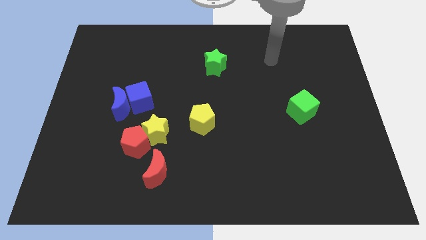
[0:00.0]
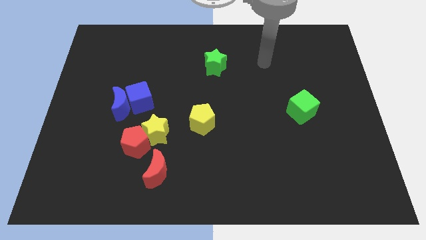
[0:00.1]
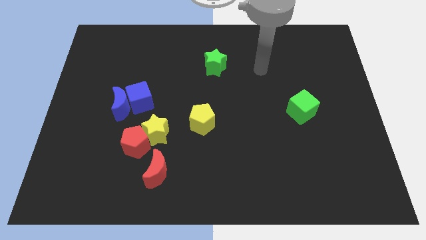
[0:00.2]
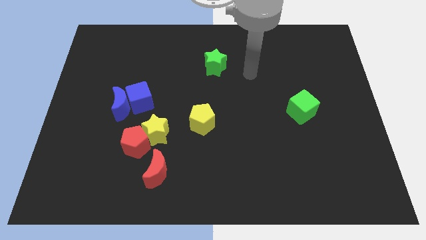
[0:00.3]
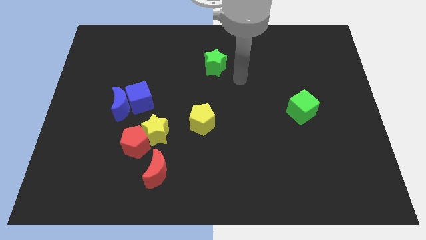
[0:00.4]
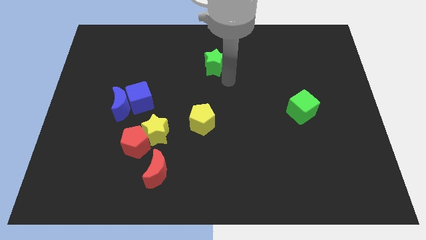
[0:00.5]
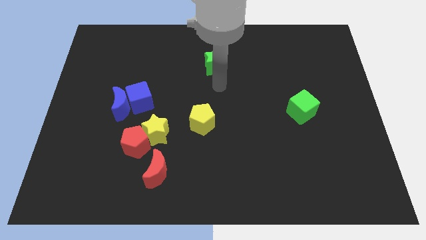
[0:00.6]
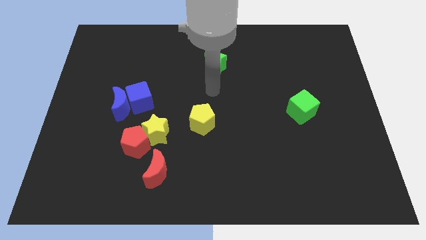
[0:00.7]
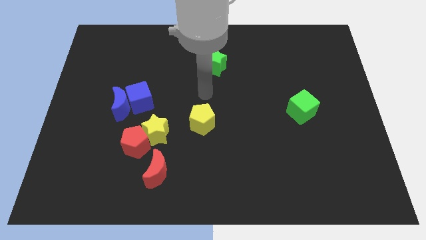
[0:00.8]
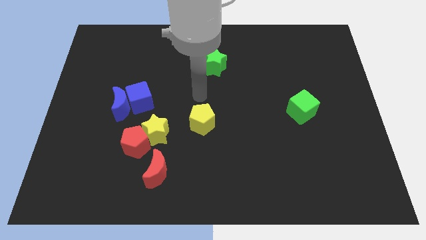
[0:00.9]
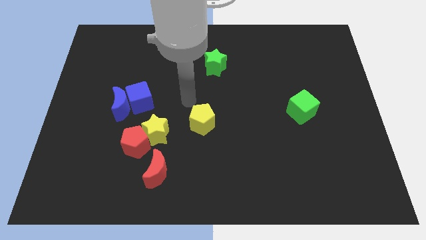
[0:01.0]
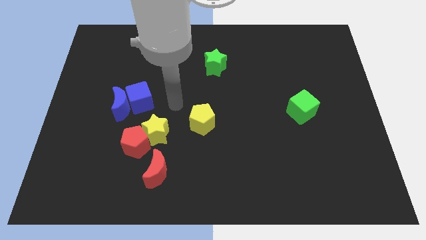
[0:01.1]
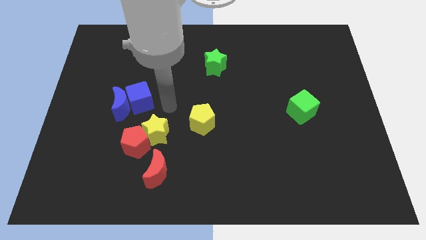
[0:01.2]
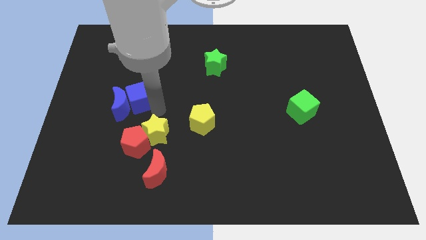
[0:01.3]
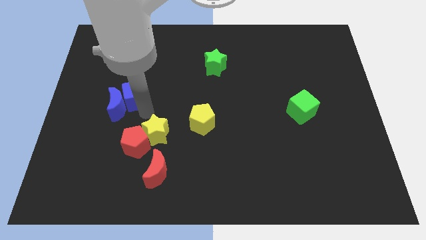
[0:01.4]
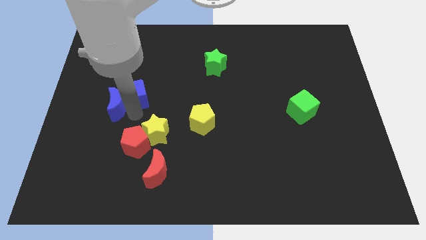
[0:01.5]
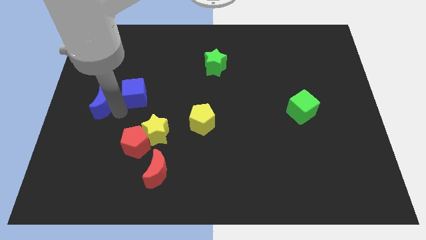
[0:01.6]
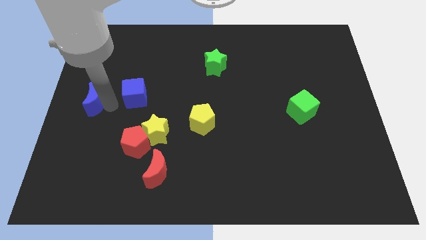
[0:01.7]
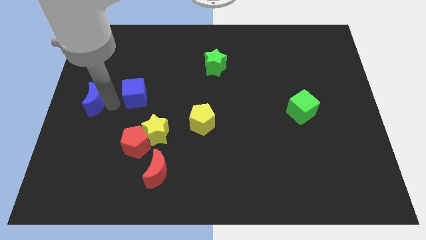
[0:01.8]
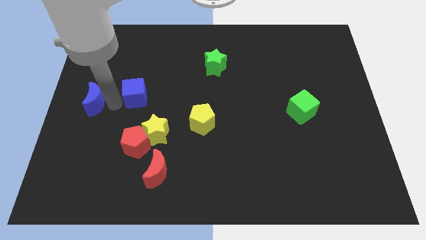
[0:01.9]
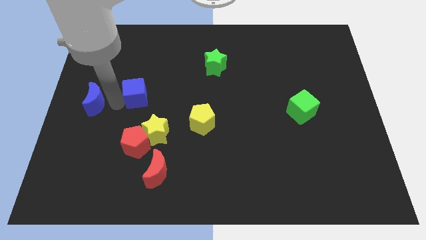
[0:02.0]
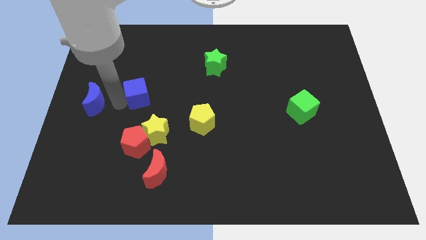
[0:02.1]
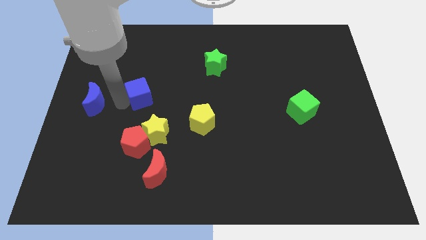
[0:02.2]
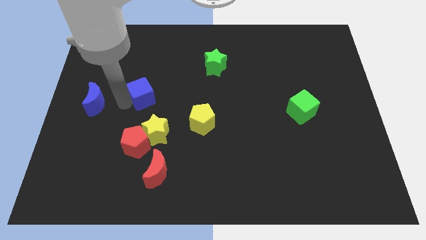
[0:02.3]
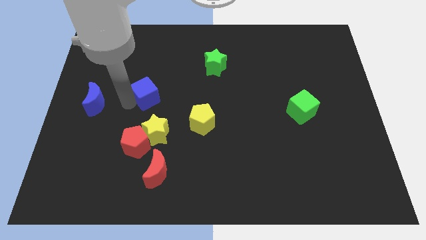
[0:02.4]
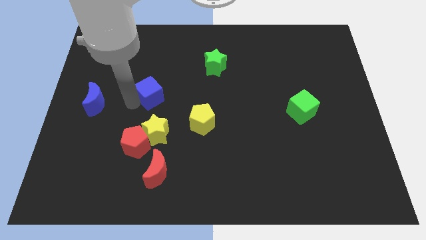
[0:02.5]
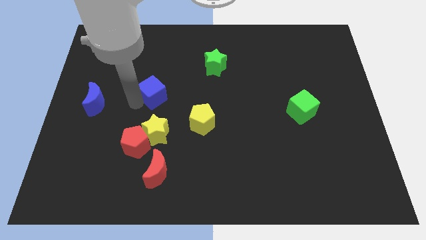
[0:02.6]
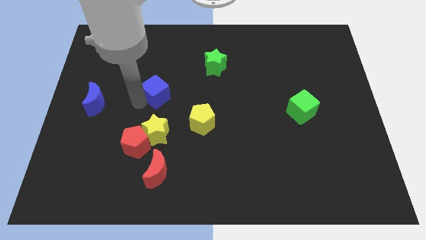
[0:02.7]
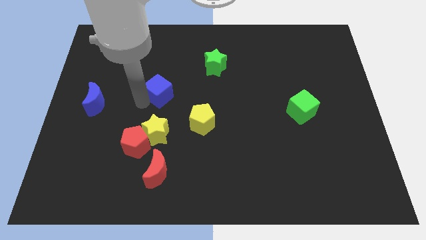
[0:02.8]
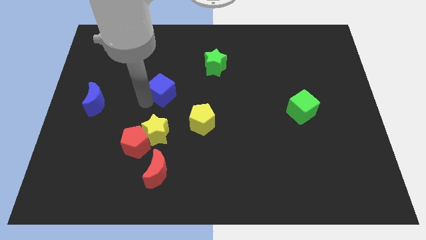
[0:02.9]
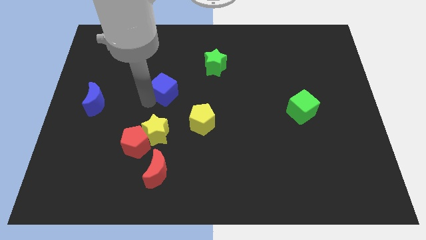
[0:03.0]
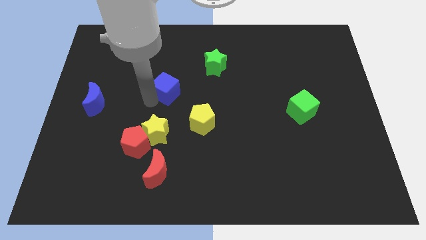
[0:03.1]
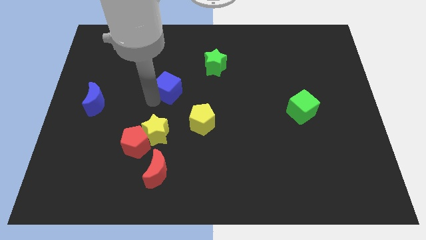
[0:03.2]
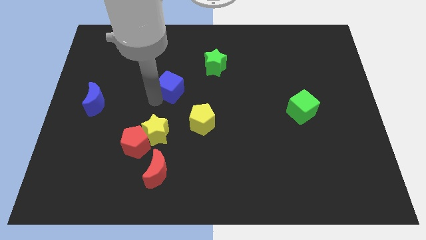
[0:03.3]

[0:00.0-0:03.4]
push the blue cube up and then to the right somewhat

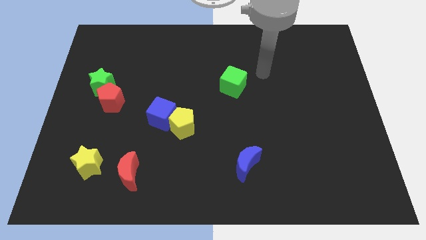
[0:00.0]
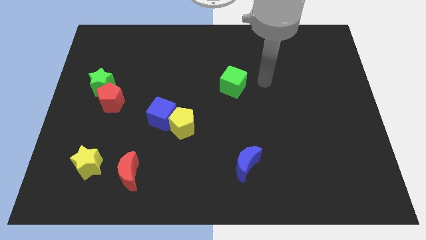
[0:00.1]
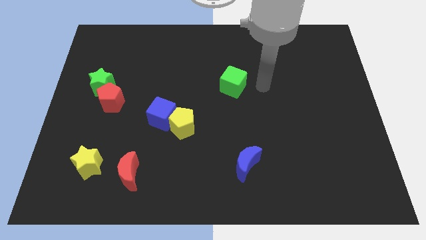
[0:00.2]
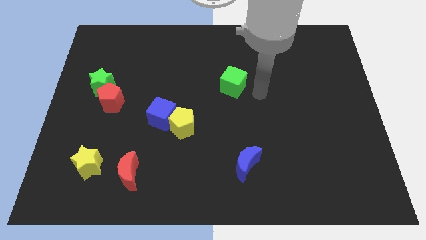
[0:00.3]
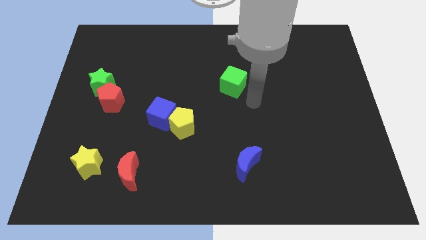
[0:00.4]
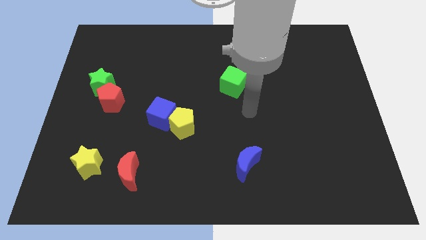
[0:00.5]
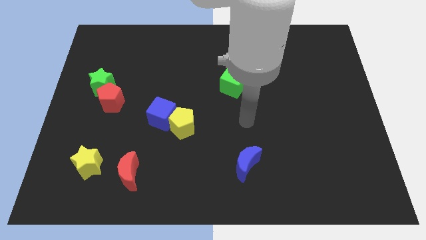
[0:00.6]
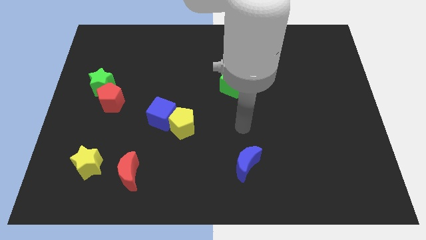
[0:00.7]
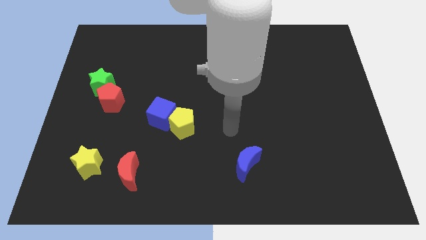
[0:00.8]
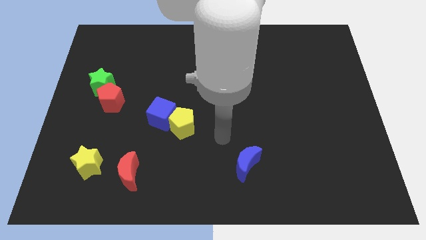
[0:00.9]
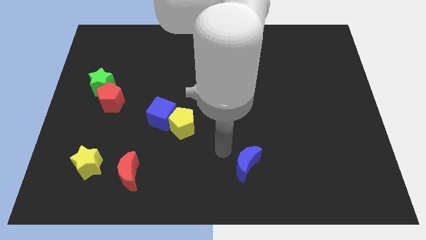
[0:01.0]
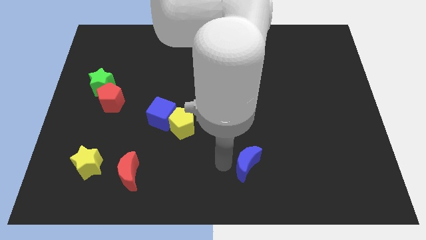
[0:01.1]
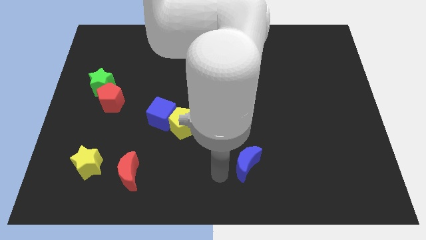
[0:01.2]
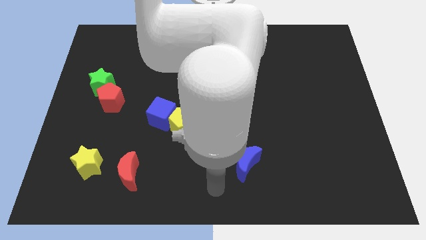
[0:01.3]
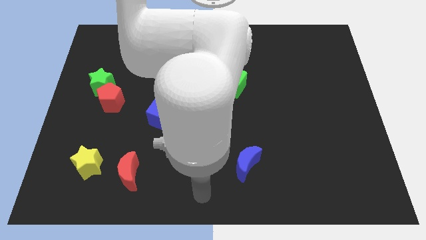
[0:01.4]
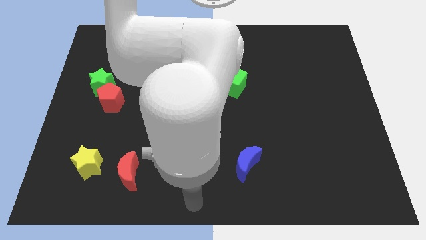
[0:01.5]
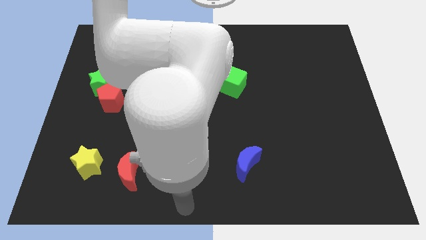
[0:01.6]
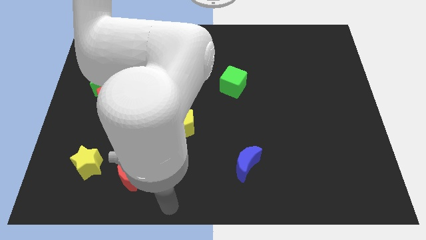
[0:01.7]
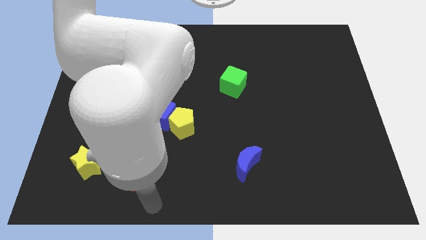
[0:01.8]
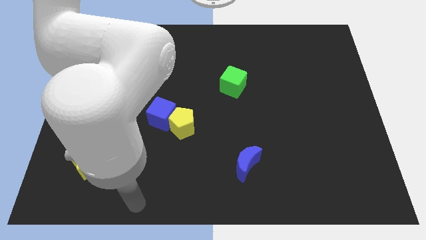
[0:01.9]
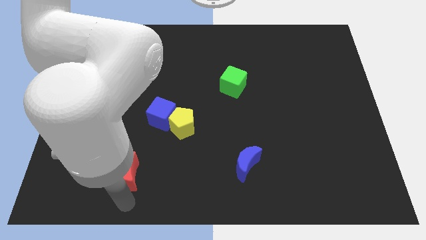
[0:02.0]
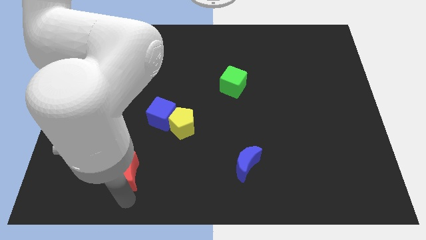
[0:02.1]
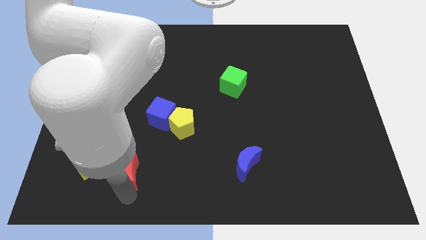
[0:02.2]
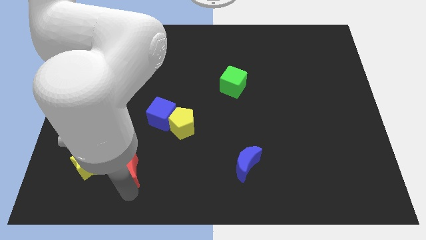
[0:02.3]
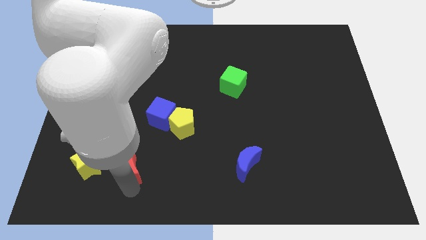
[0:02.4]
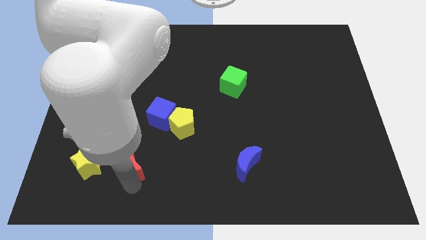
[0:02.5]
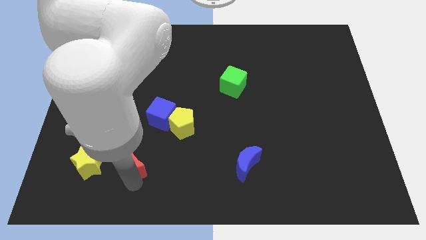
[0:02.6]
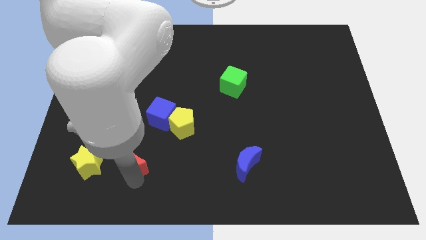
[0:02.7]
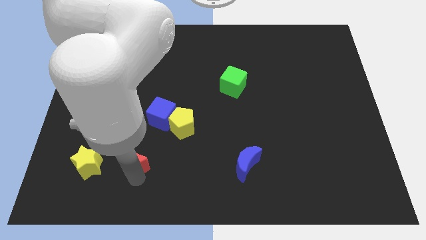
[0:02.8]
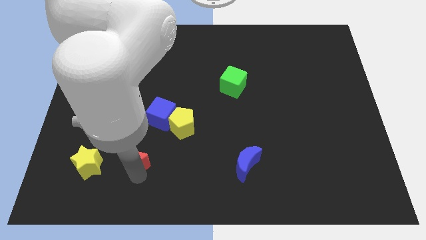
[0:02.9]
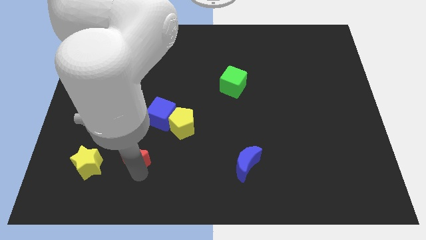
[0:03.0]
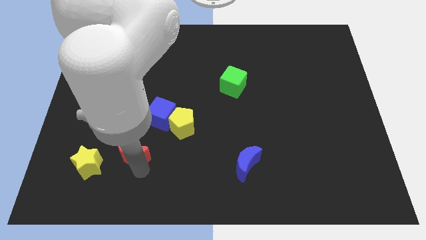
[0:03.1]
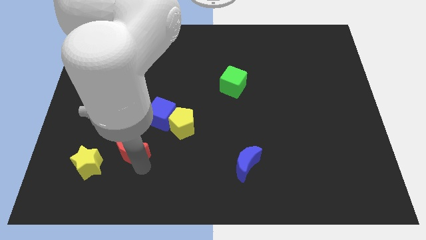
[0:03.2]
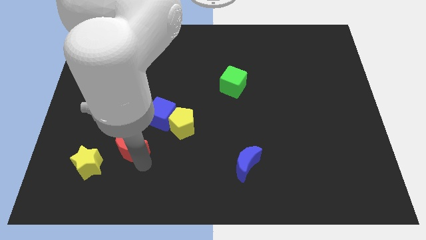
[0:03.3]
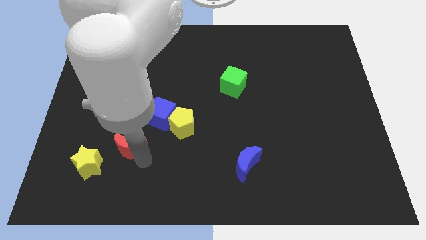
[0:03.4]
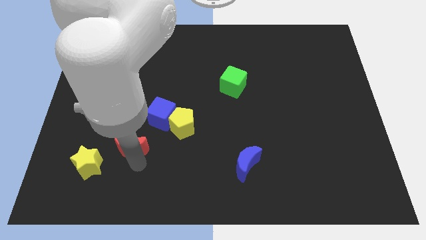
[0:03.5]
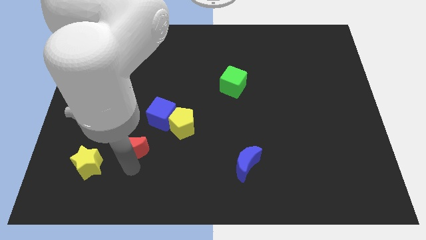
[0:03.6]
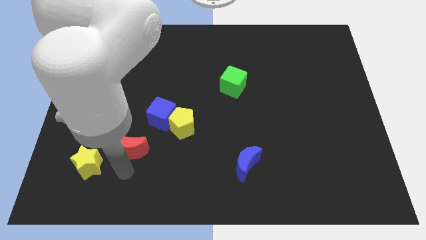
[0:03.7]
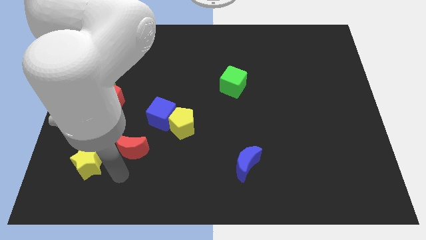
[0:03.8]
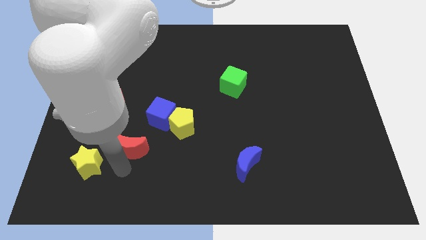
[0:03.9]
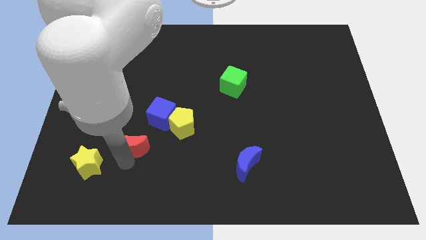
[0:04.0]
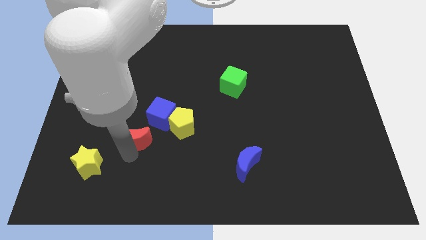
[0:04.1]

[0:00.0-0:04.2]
push the red moon a little bit upwards
